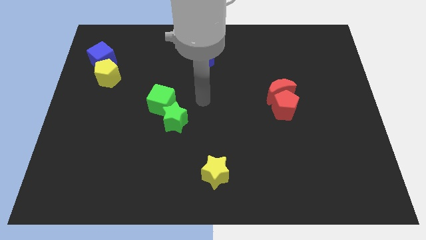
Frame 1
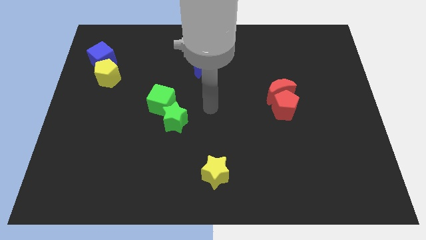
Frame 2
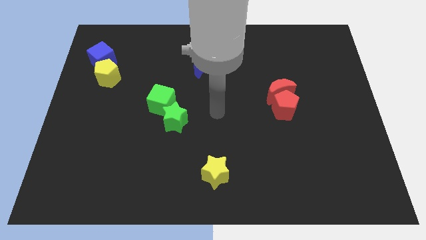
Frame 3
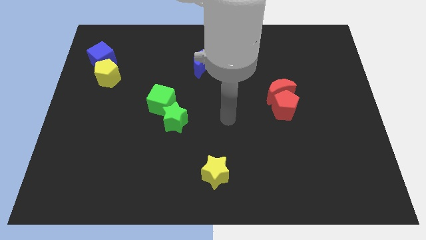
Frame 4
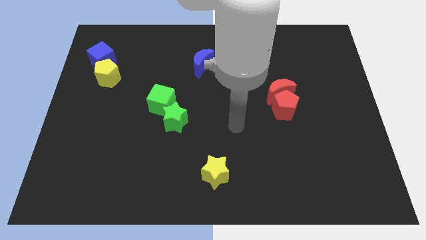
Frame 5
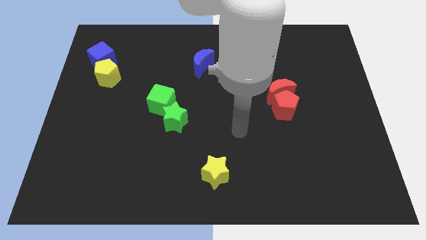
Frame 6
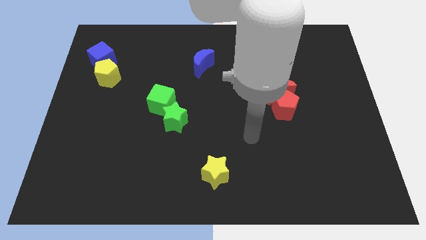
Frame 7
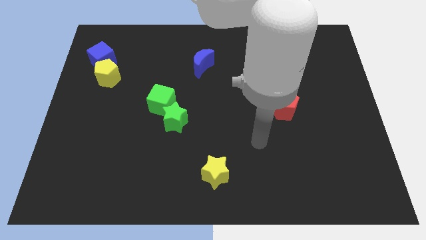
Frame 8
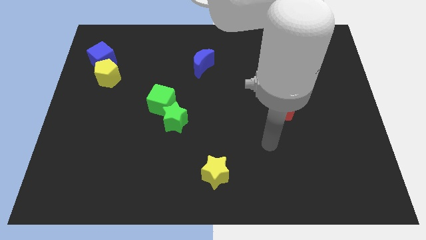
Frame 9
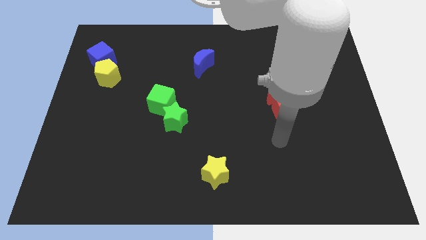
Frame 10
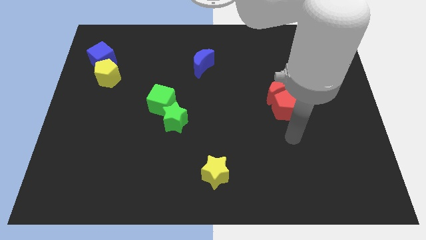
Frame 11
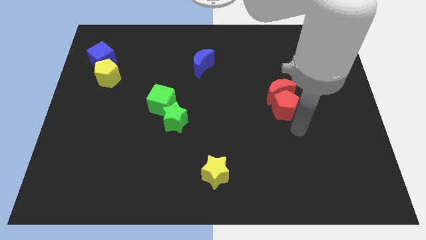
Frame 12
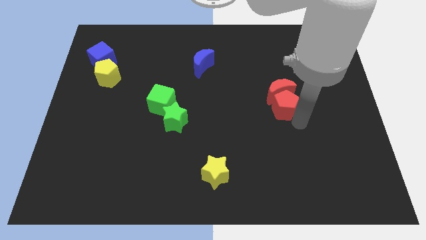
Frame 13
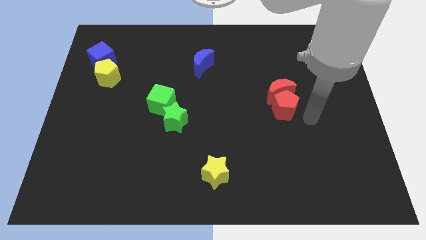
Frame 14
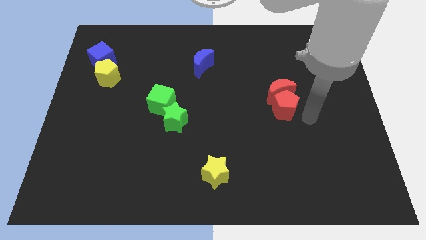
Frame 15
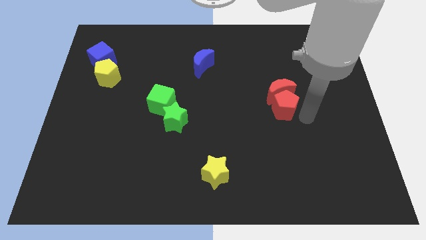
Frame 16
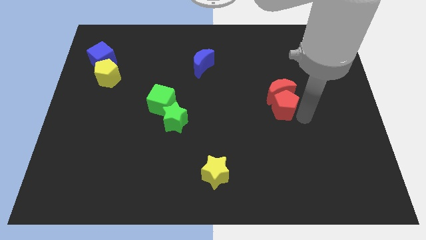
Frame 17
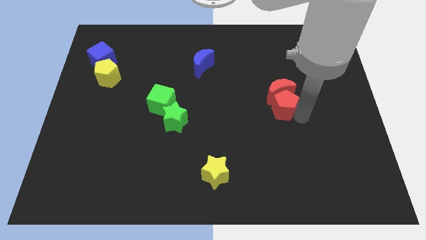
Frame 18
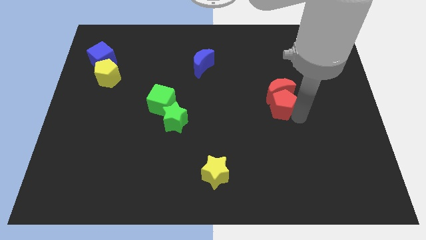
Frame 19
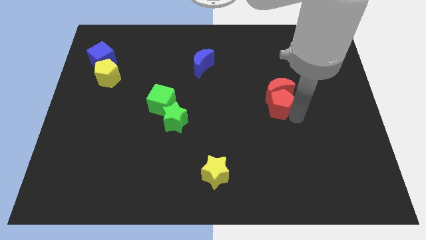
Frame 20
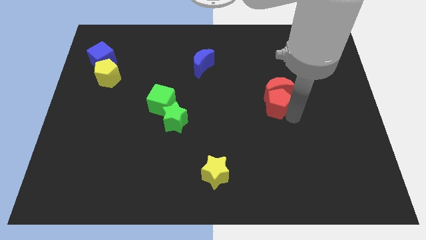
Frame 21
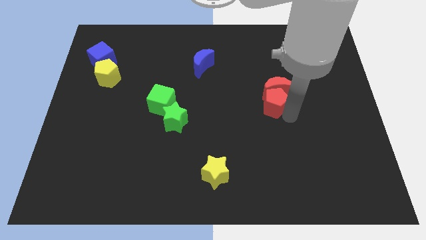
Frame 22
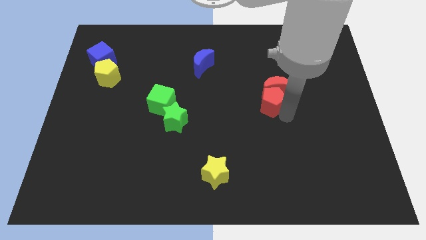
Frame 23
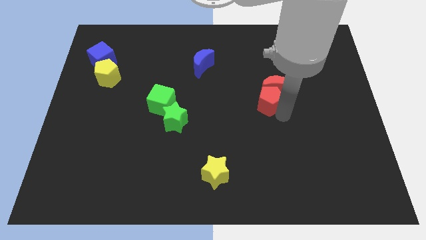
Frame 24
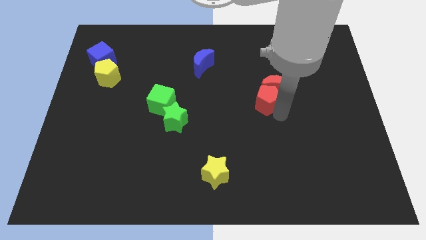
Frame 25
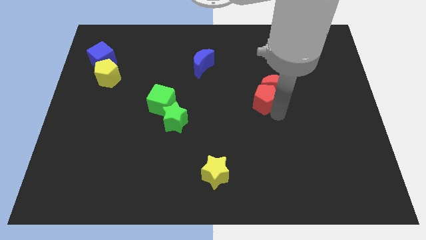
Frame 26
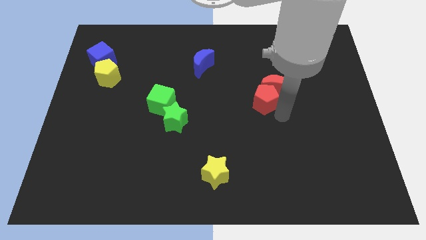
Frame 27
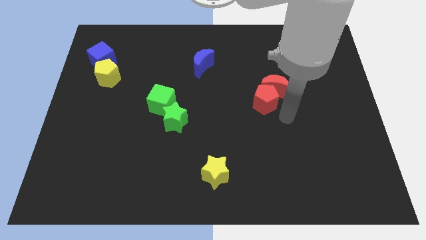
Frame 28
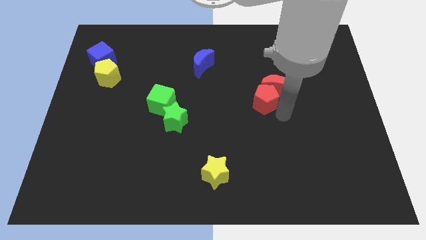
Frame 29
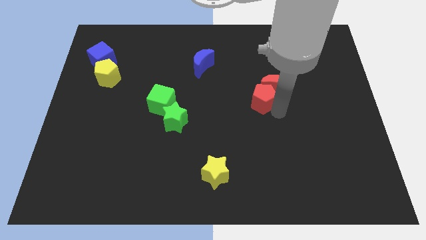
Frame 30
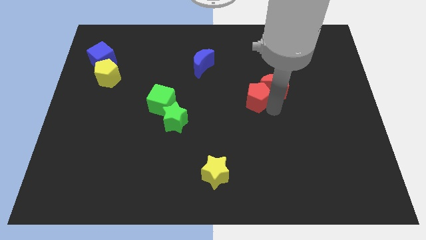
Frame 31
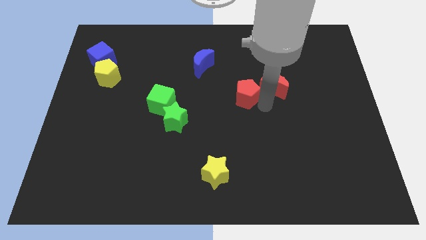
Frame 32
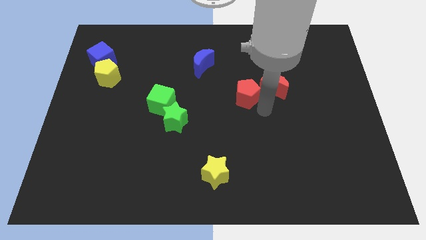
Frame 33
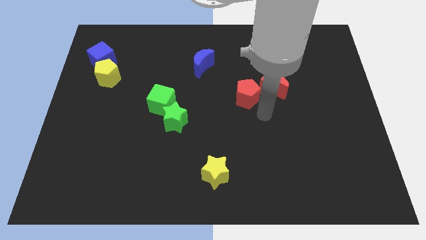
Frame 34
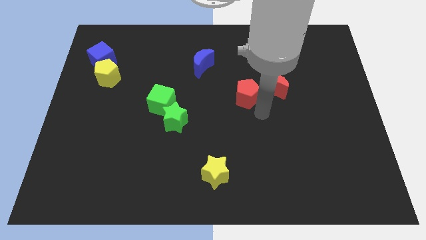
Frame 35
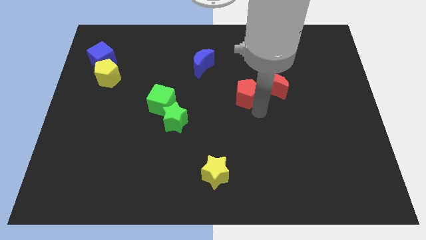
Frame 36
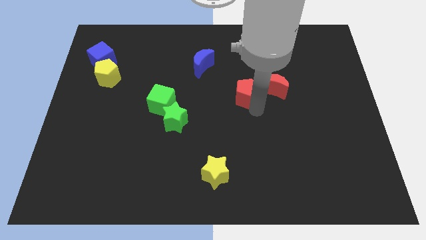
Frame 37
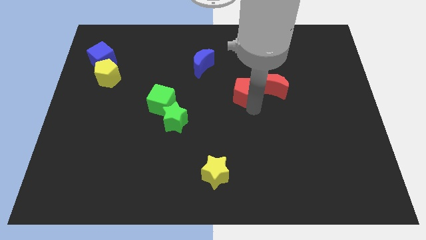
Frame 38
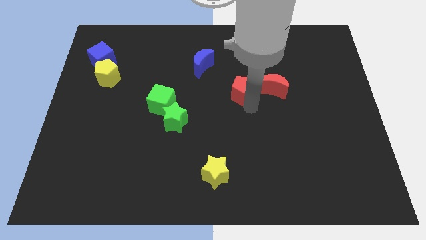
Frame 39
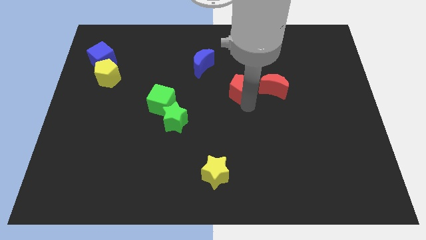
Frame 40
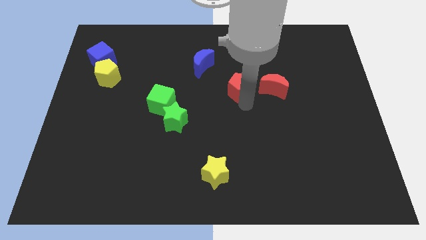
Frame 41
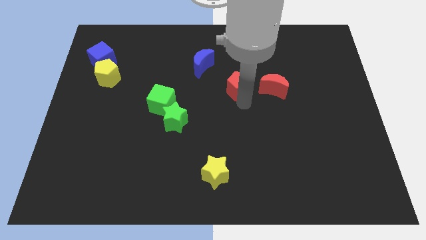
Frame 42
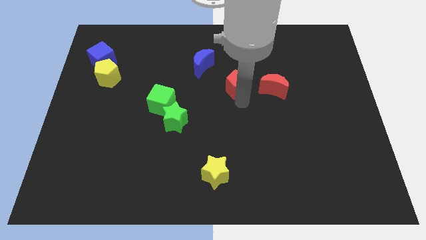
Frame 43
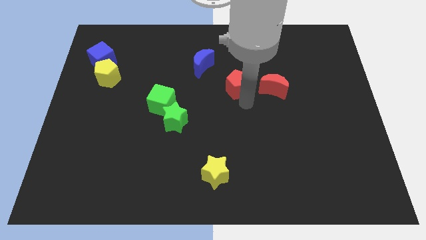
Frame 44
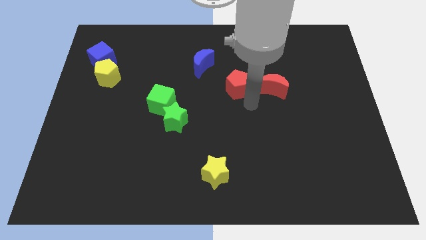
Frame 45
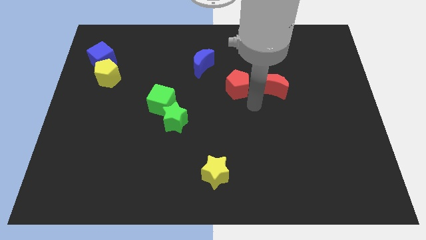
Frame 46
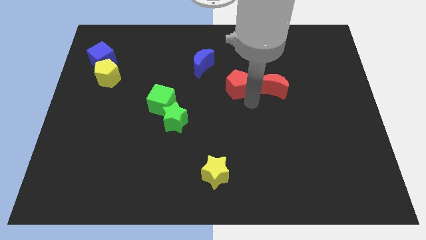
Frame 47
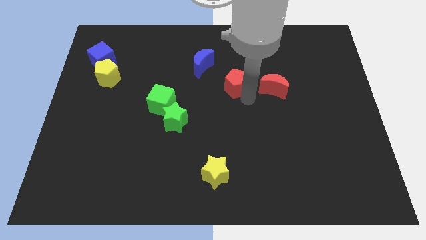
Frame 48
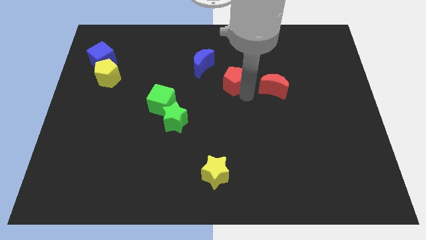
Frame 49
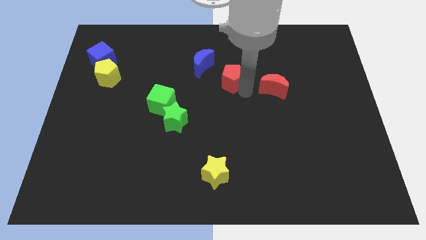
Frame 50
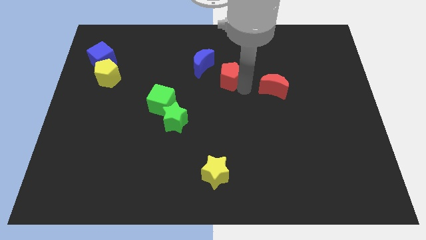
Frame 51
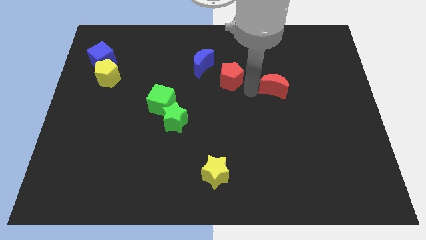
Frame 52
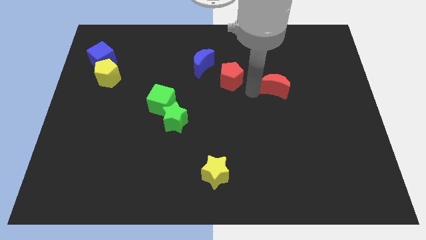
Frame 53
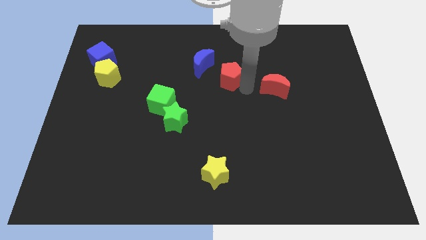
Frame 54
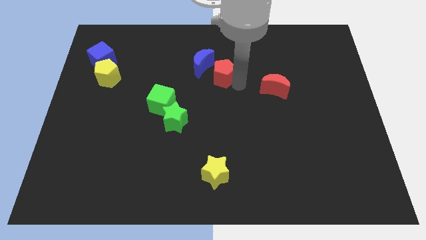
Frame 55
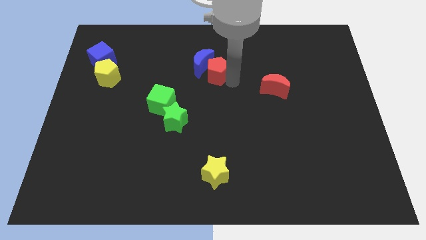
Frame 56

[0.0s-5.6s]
put the red pentagon to the blue moon

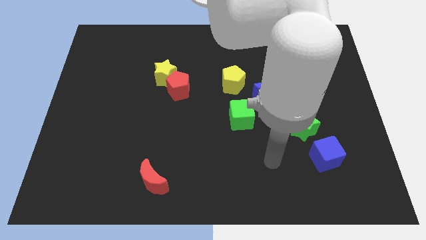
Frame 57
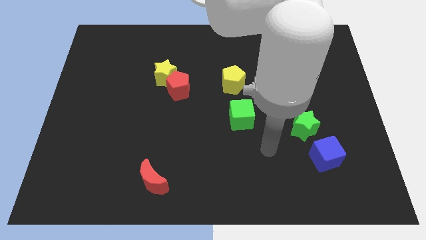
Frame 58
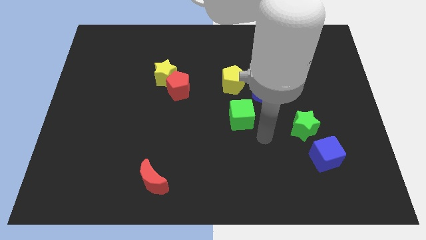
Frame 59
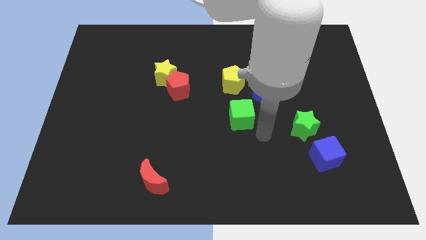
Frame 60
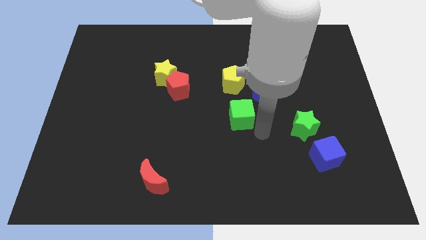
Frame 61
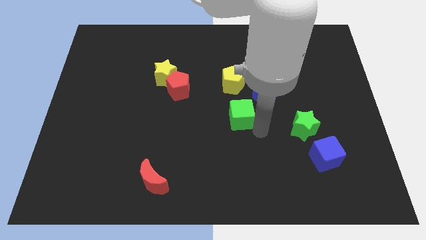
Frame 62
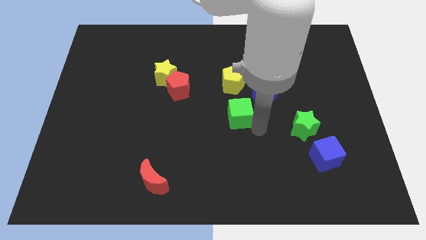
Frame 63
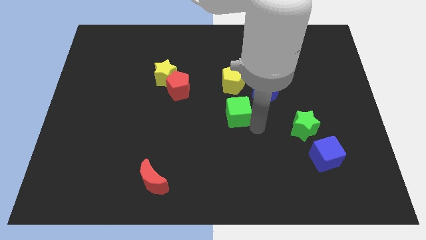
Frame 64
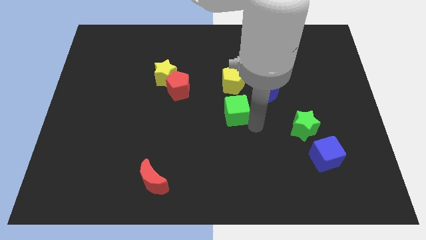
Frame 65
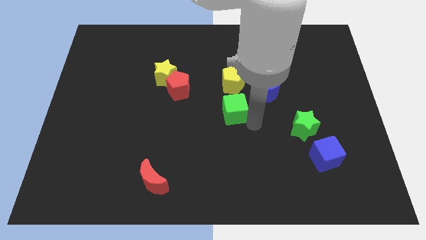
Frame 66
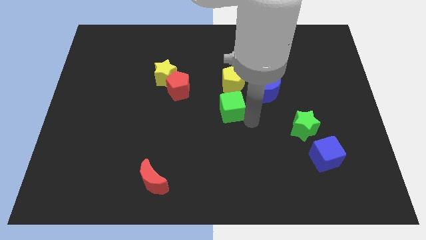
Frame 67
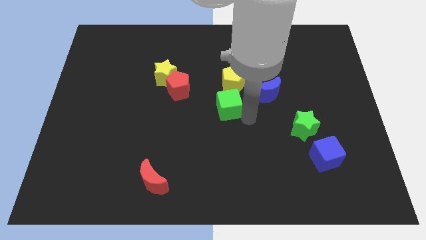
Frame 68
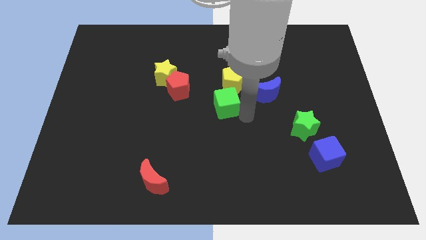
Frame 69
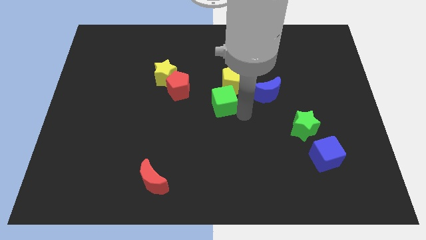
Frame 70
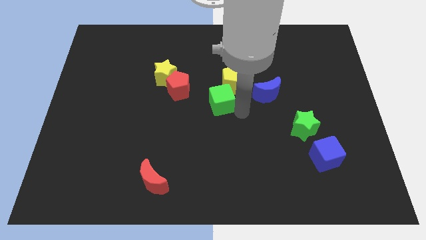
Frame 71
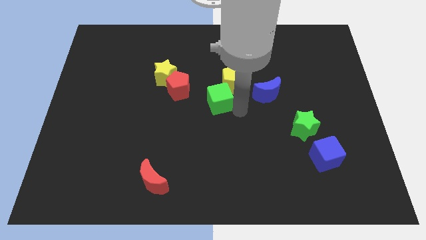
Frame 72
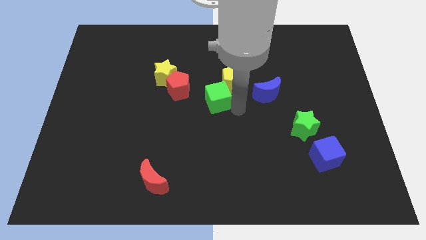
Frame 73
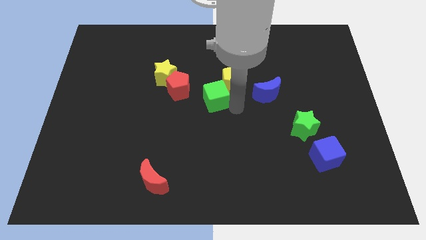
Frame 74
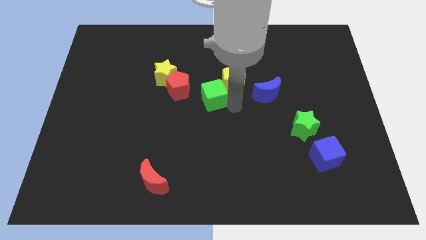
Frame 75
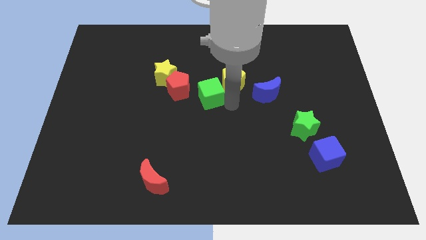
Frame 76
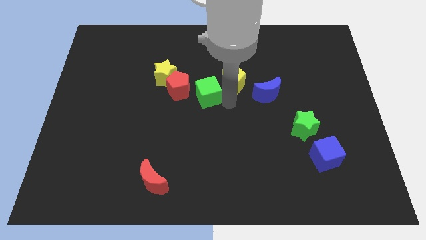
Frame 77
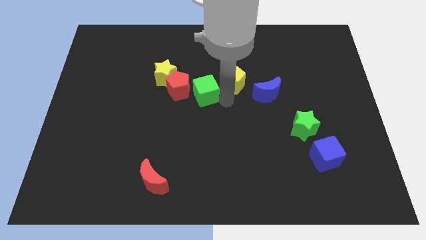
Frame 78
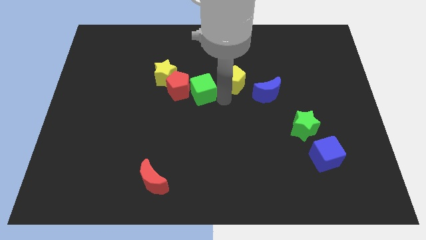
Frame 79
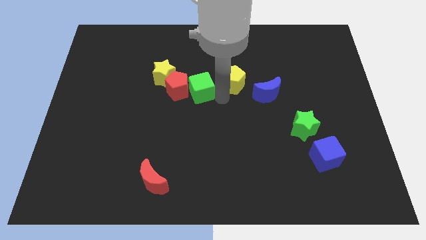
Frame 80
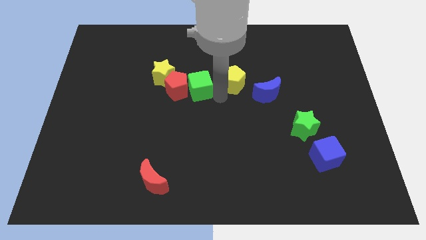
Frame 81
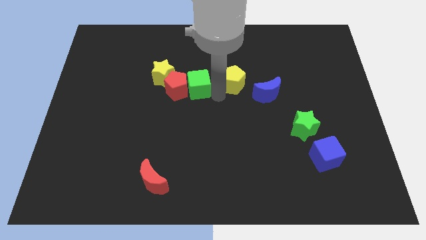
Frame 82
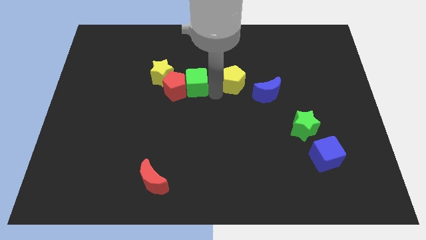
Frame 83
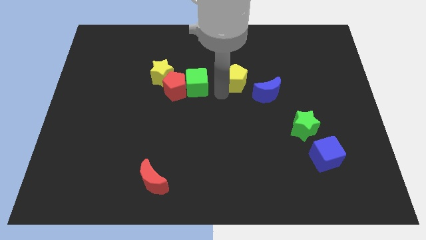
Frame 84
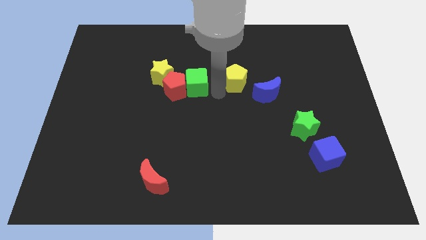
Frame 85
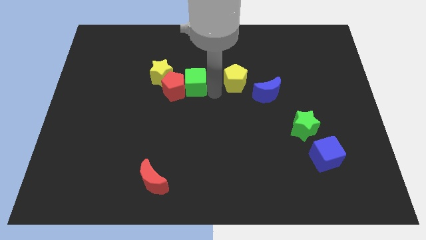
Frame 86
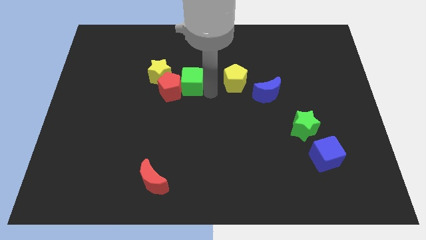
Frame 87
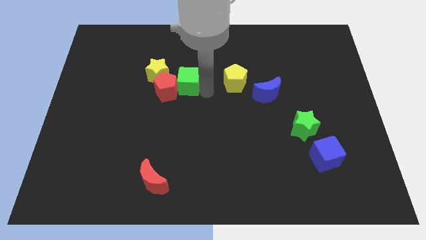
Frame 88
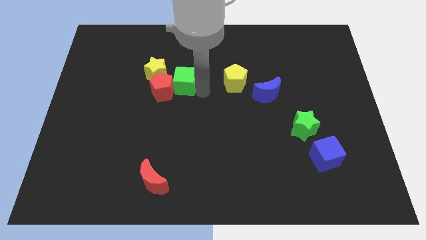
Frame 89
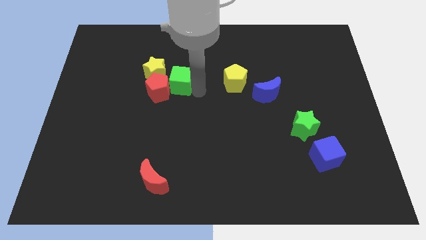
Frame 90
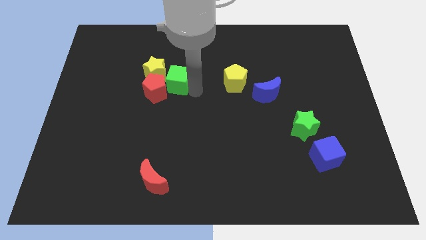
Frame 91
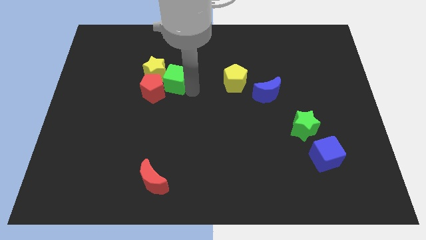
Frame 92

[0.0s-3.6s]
slide the green cube to the yellow star
